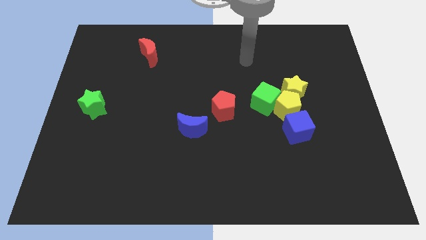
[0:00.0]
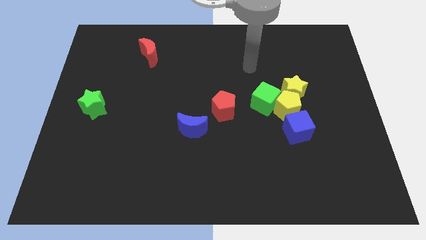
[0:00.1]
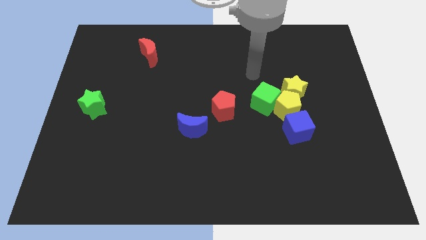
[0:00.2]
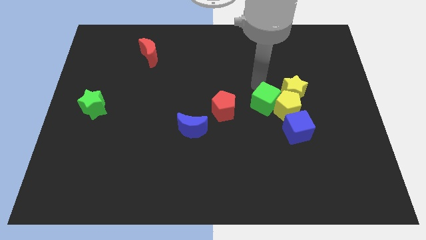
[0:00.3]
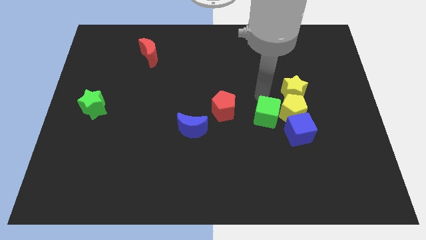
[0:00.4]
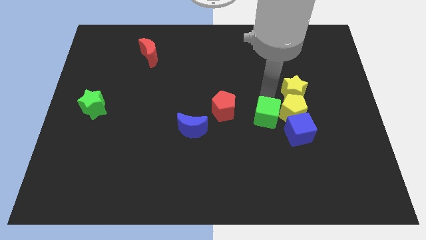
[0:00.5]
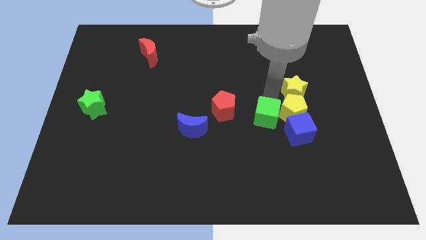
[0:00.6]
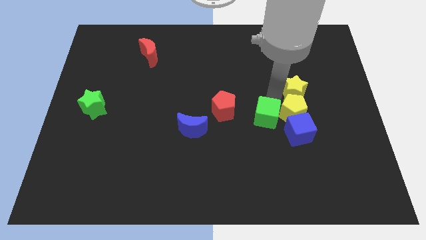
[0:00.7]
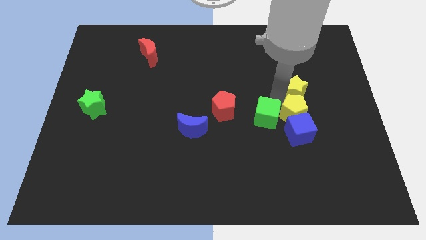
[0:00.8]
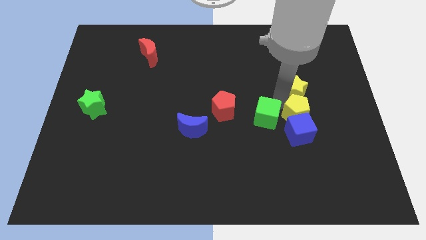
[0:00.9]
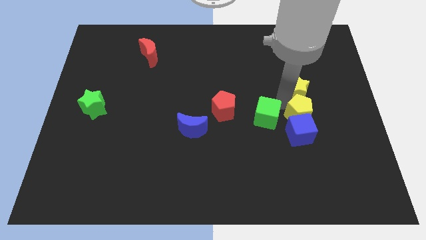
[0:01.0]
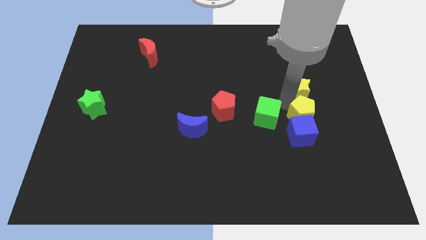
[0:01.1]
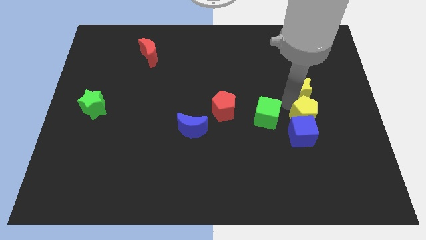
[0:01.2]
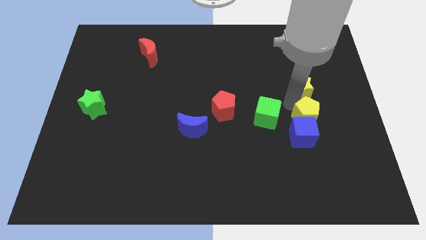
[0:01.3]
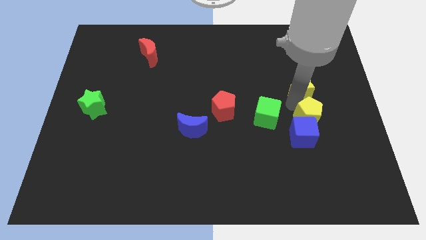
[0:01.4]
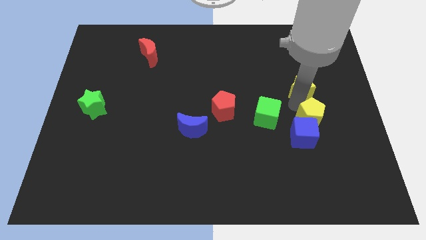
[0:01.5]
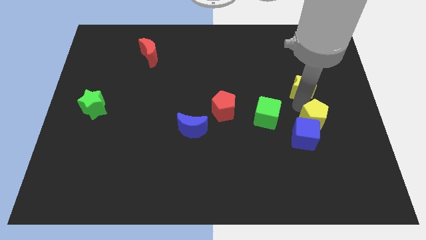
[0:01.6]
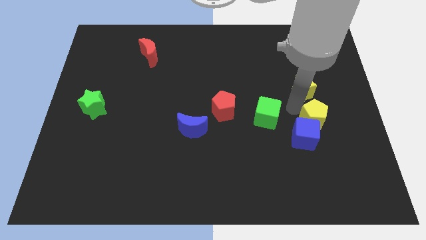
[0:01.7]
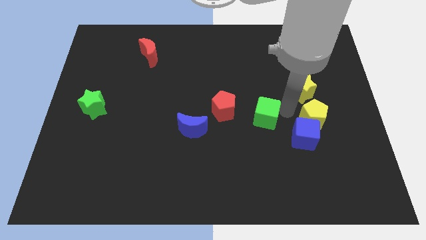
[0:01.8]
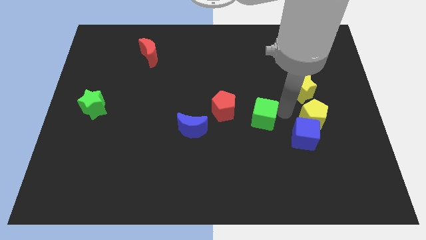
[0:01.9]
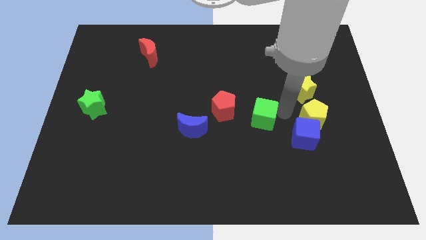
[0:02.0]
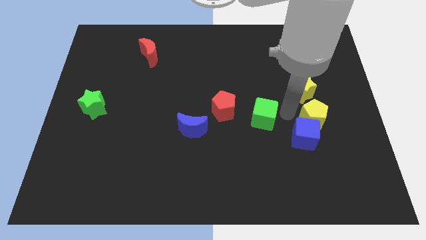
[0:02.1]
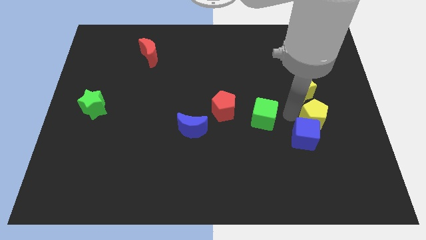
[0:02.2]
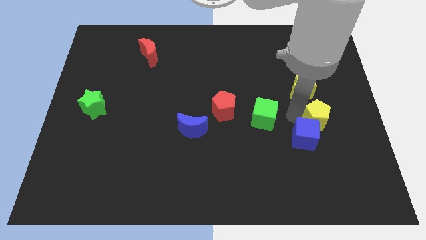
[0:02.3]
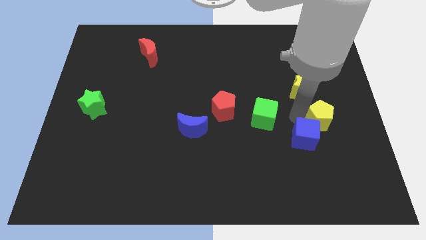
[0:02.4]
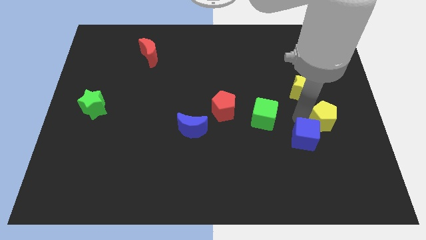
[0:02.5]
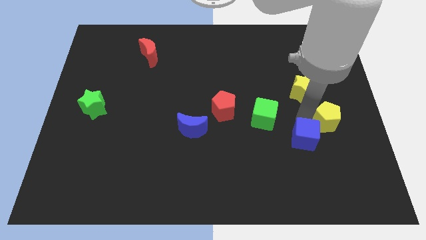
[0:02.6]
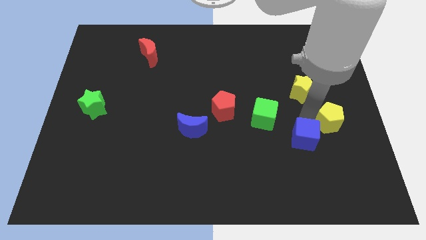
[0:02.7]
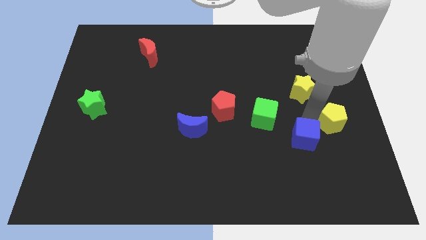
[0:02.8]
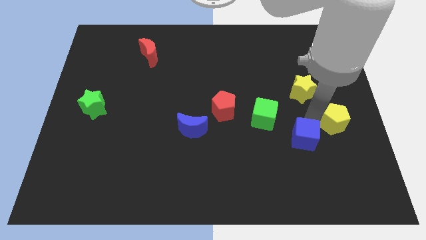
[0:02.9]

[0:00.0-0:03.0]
move the yellow pentagon away from the yellow star, green cube, and blue cube

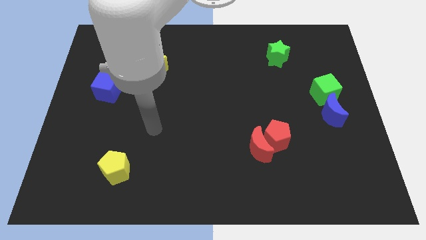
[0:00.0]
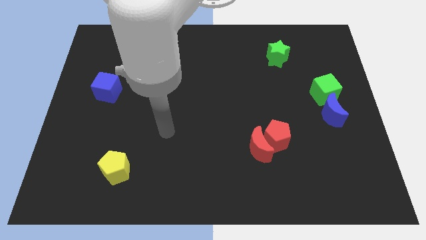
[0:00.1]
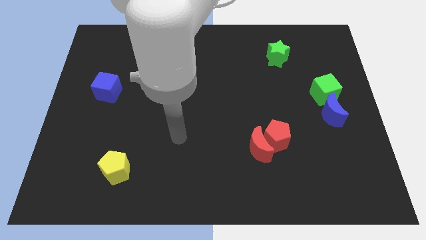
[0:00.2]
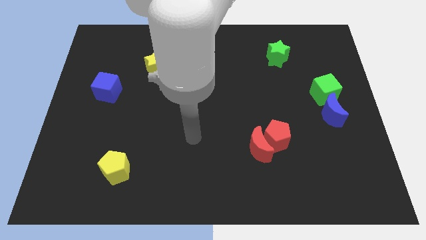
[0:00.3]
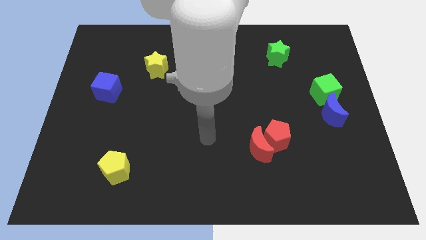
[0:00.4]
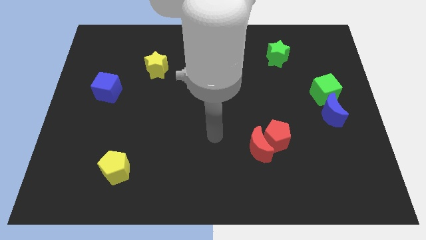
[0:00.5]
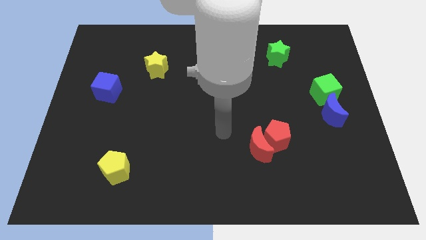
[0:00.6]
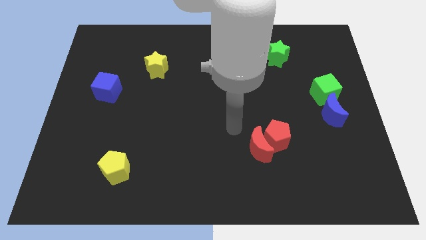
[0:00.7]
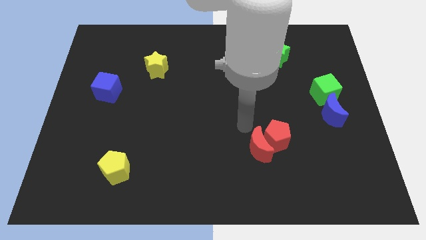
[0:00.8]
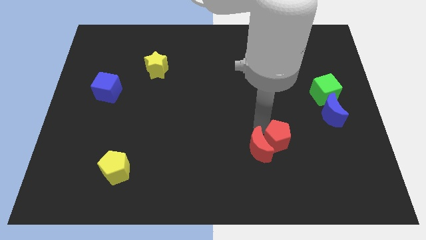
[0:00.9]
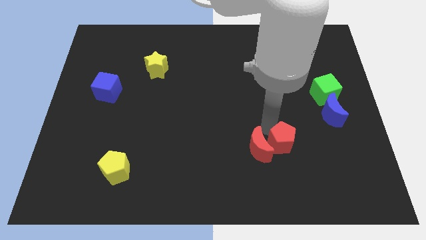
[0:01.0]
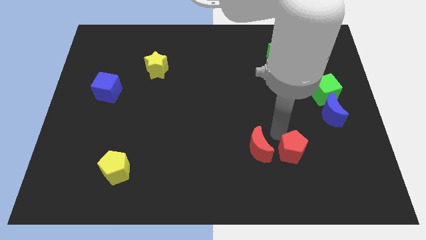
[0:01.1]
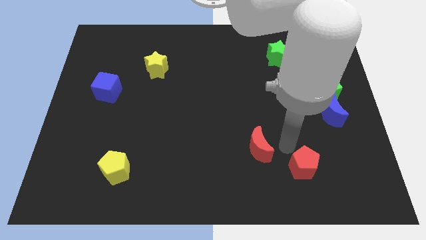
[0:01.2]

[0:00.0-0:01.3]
separate the red moon from the red pentagon

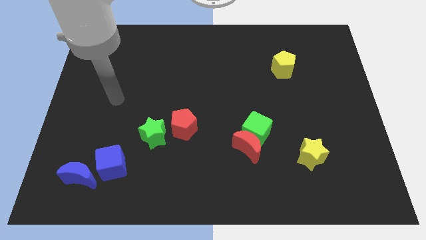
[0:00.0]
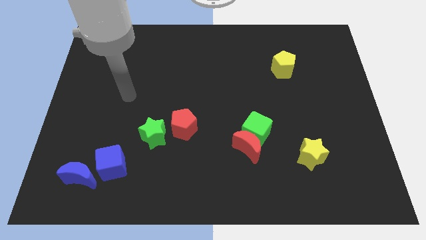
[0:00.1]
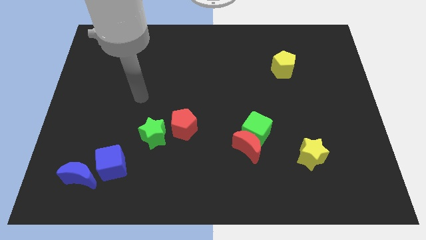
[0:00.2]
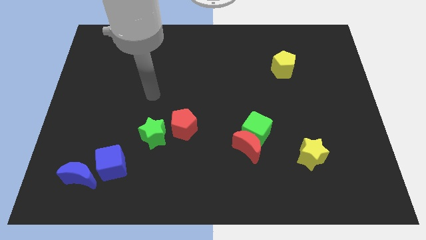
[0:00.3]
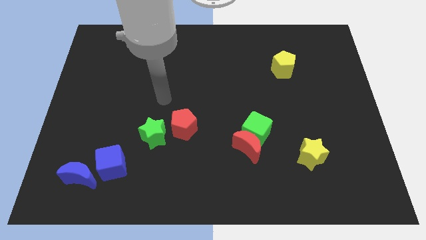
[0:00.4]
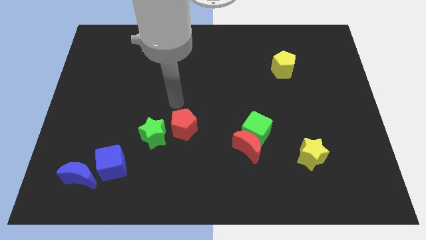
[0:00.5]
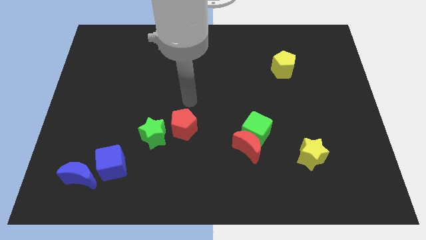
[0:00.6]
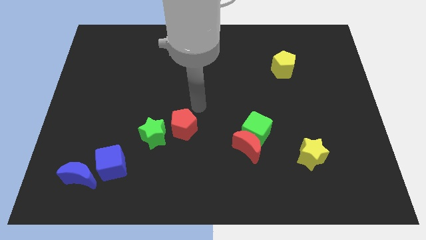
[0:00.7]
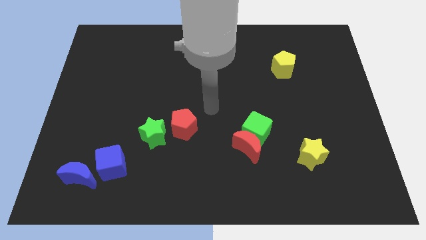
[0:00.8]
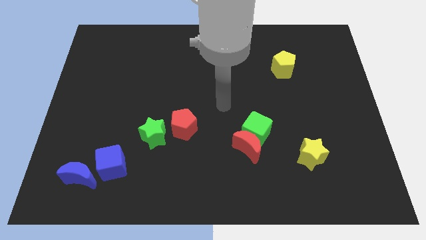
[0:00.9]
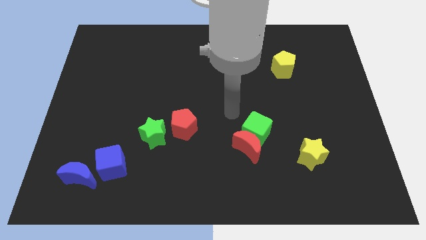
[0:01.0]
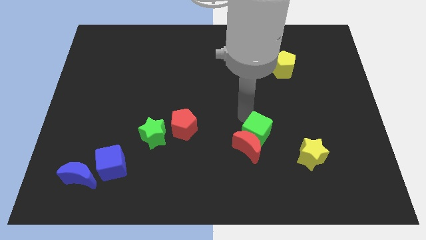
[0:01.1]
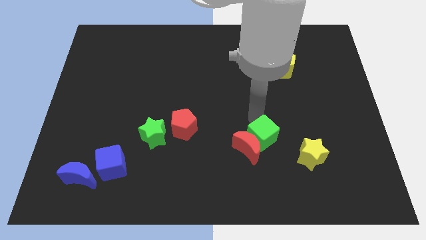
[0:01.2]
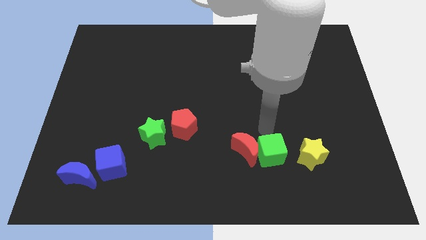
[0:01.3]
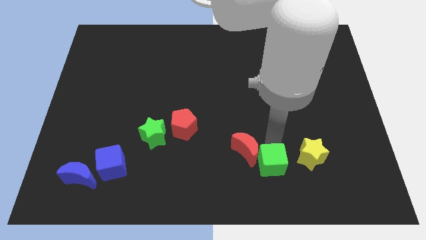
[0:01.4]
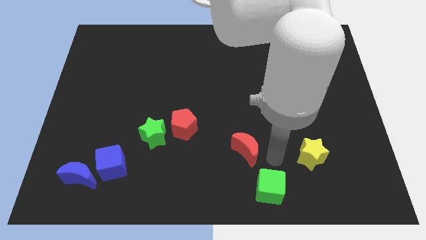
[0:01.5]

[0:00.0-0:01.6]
move the red moon away from the green cube

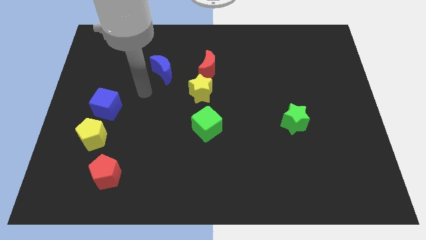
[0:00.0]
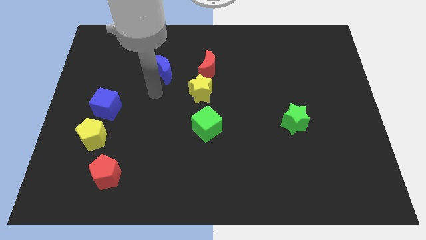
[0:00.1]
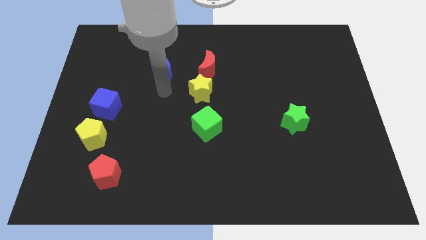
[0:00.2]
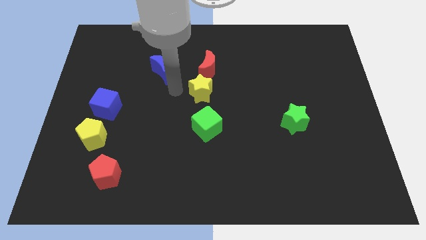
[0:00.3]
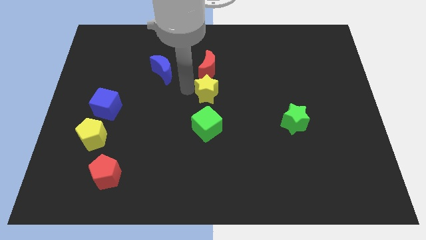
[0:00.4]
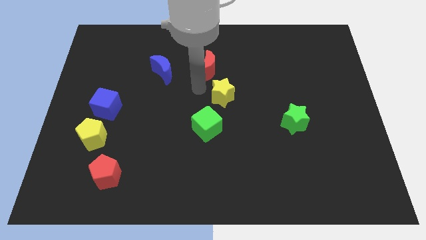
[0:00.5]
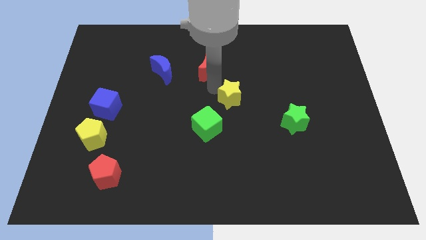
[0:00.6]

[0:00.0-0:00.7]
move the red moon away from the yellow star

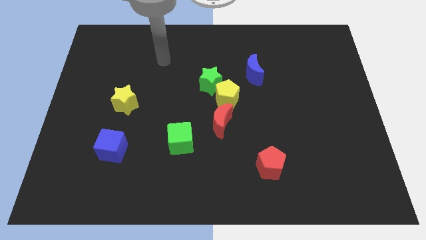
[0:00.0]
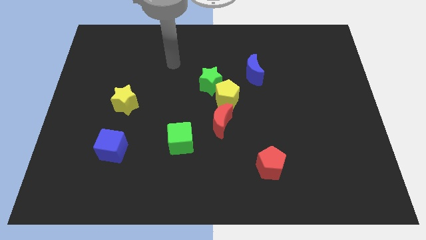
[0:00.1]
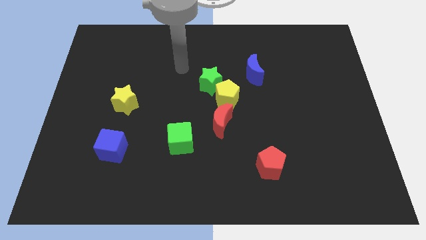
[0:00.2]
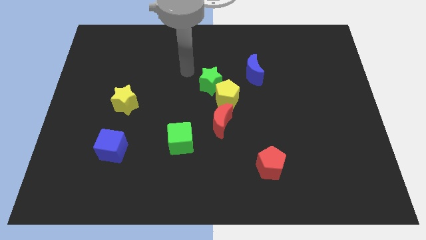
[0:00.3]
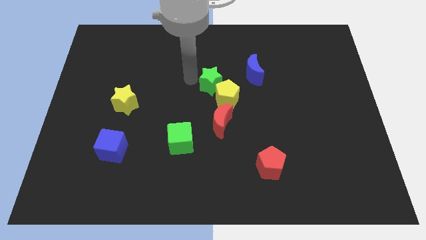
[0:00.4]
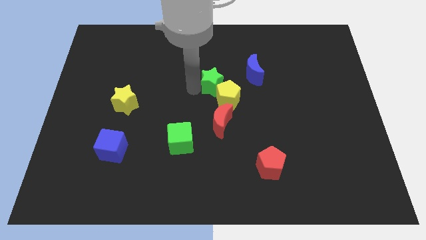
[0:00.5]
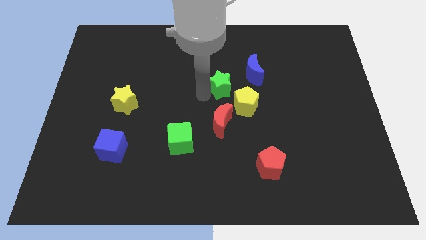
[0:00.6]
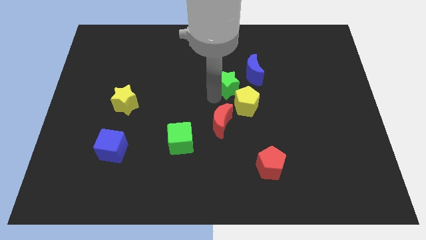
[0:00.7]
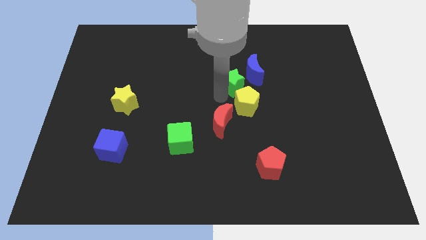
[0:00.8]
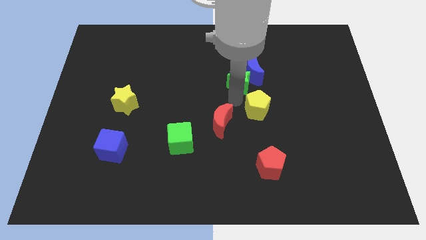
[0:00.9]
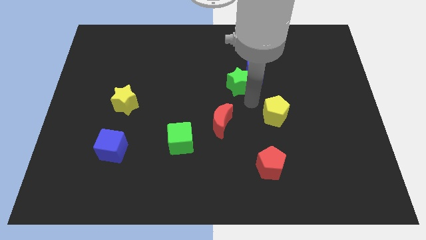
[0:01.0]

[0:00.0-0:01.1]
move the green star away from the yellow pentagon

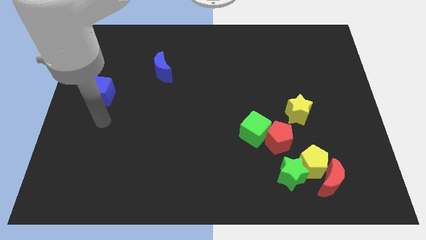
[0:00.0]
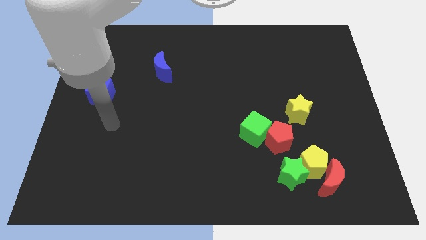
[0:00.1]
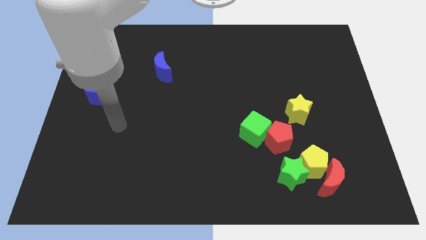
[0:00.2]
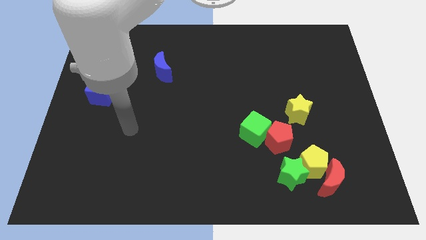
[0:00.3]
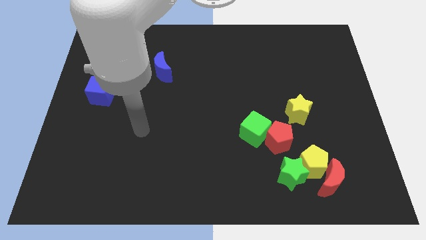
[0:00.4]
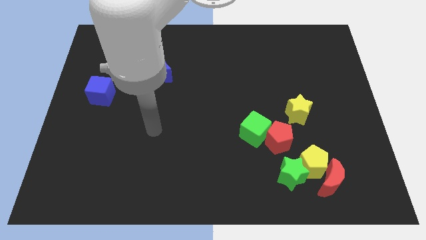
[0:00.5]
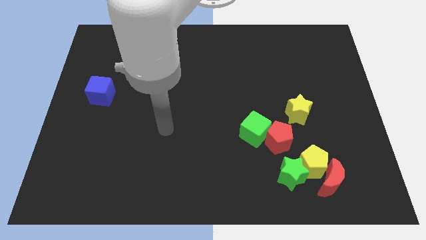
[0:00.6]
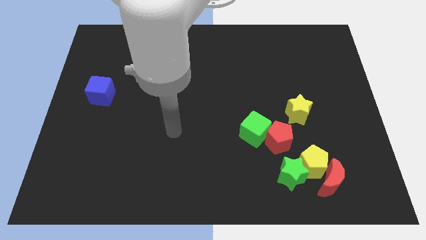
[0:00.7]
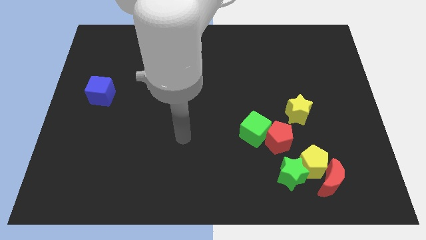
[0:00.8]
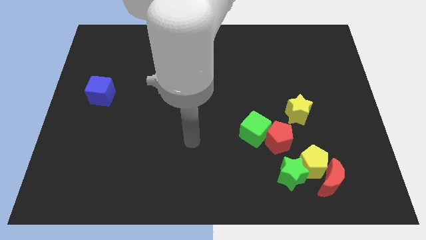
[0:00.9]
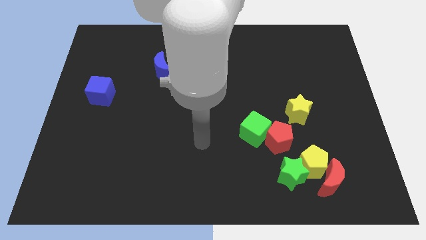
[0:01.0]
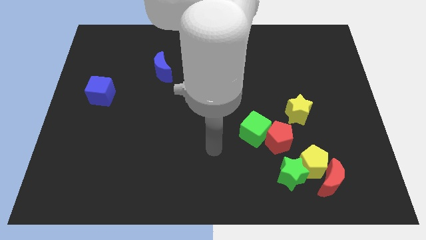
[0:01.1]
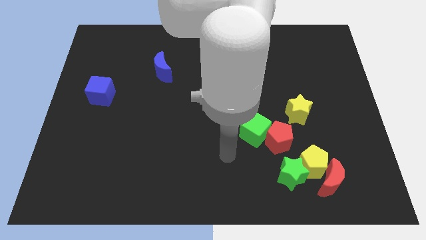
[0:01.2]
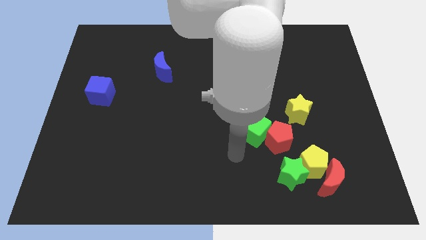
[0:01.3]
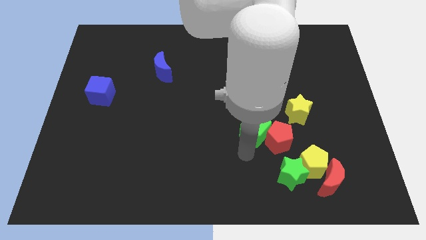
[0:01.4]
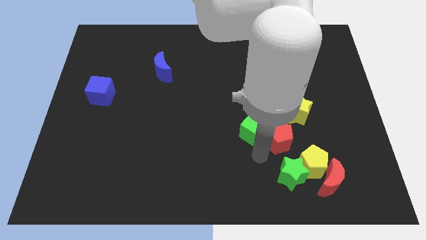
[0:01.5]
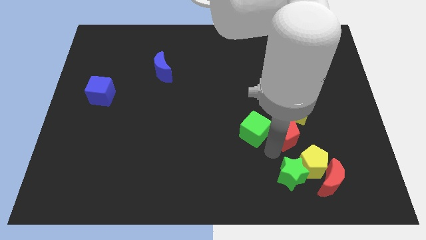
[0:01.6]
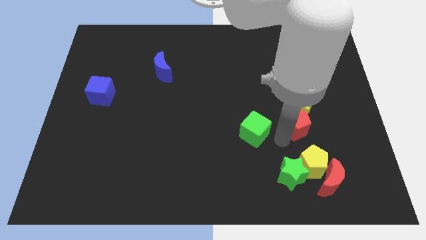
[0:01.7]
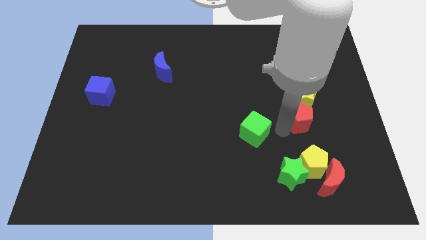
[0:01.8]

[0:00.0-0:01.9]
pull the green cube apart from the red pentagon
